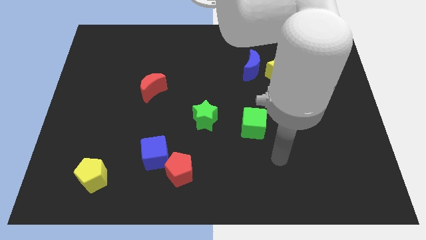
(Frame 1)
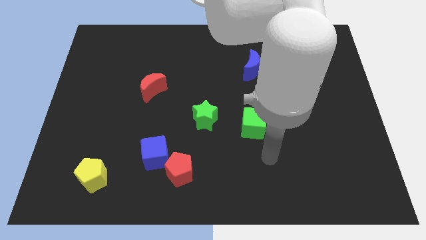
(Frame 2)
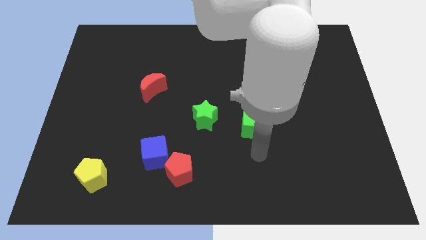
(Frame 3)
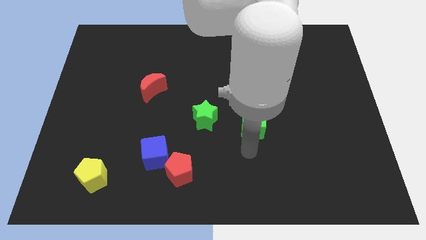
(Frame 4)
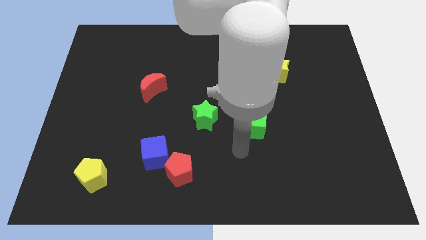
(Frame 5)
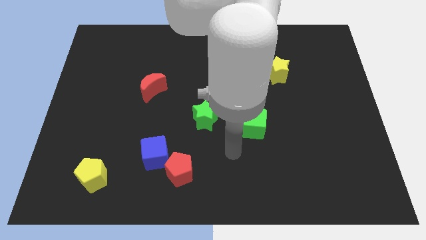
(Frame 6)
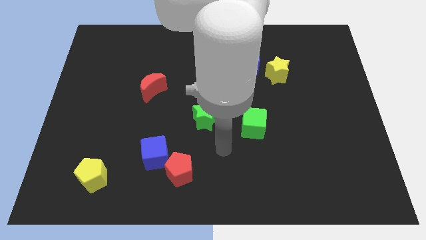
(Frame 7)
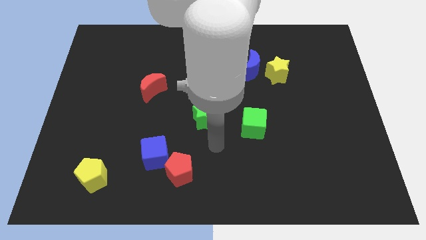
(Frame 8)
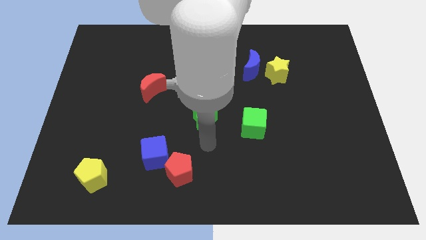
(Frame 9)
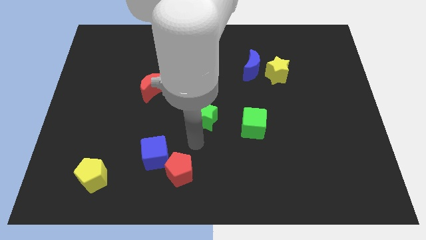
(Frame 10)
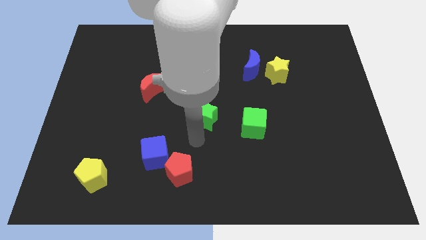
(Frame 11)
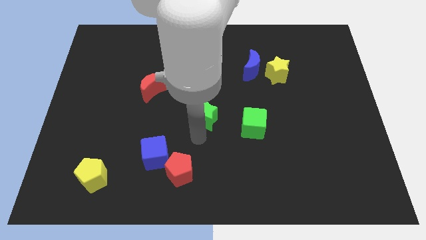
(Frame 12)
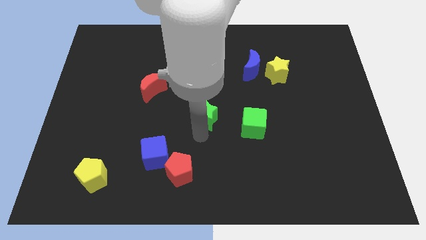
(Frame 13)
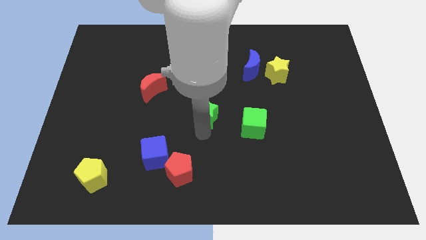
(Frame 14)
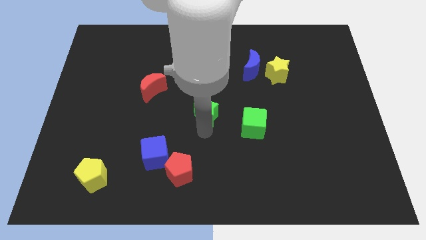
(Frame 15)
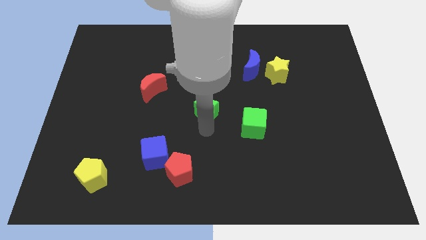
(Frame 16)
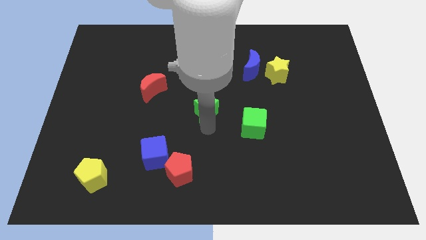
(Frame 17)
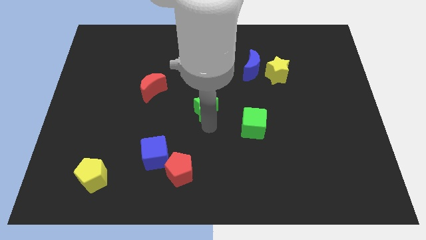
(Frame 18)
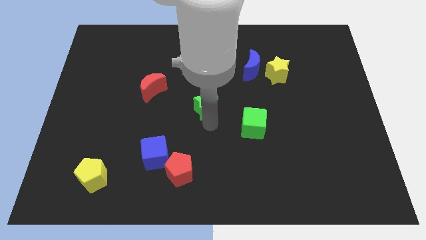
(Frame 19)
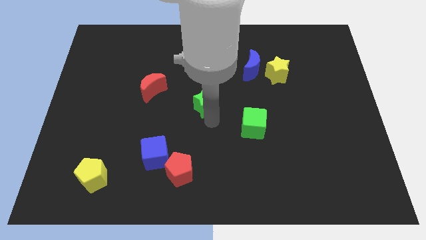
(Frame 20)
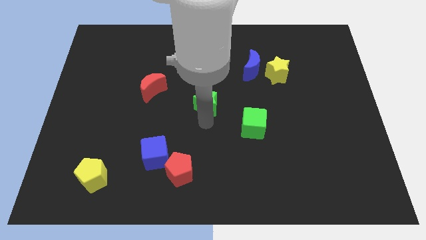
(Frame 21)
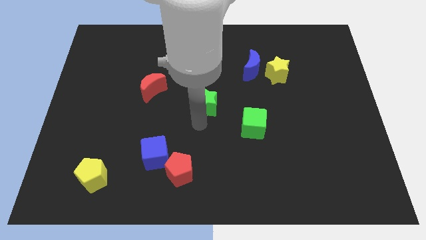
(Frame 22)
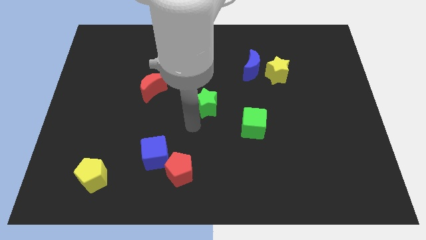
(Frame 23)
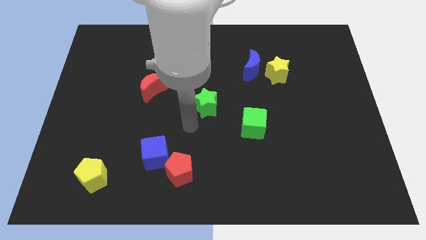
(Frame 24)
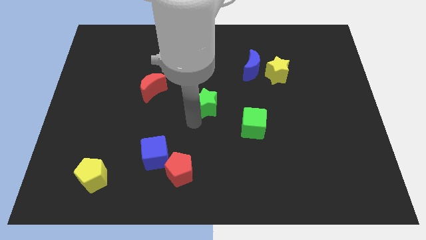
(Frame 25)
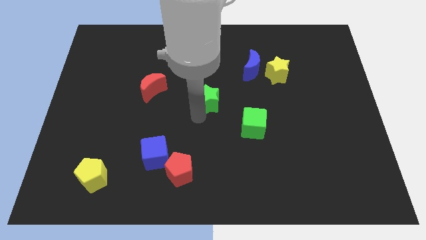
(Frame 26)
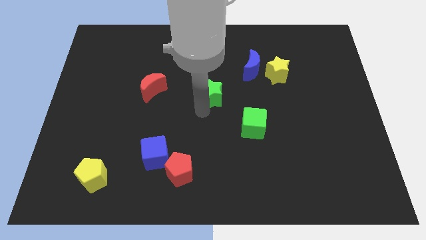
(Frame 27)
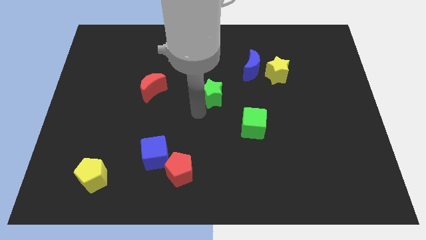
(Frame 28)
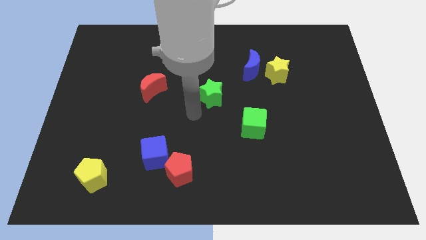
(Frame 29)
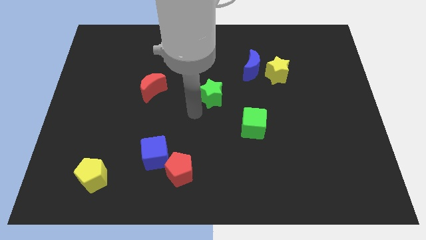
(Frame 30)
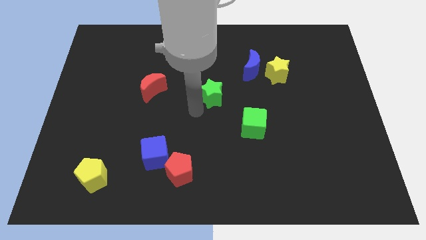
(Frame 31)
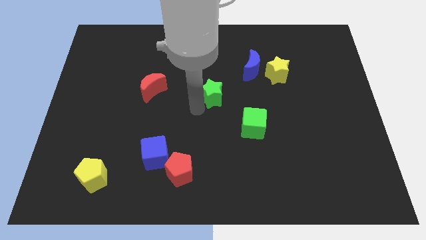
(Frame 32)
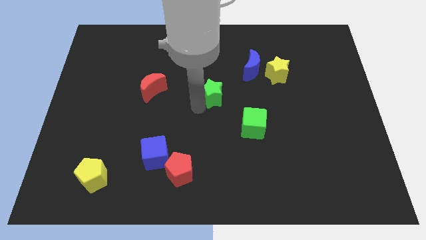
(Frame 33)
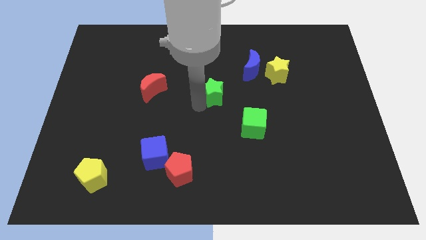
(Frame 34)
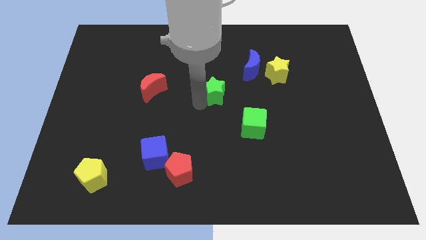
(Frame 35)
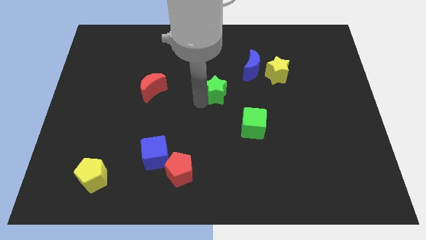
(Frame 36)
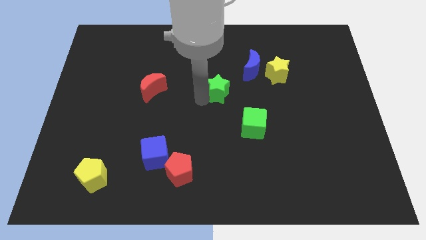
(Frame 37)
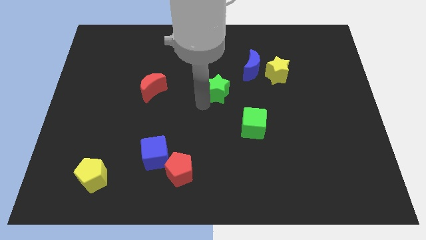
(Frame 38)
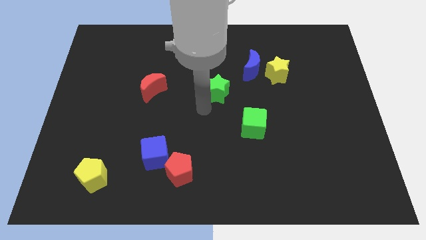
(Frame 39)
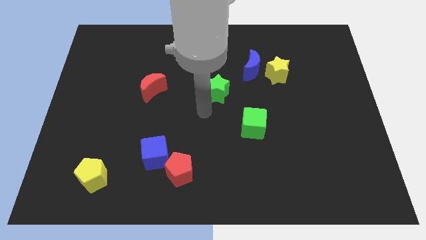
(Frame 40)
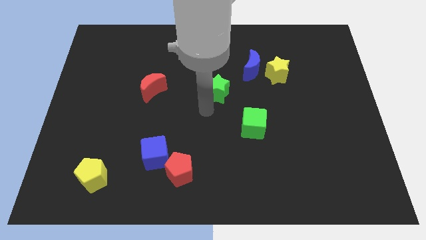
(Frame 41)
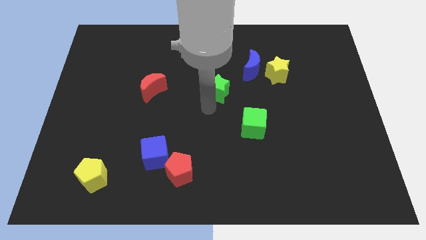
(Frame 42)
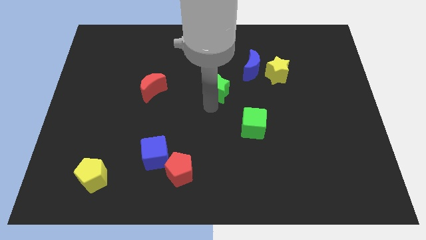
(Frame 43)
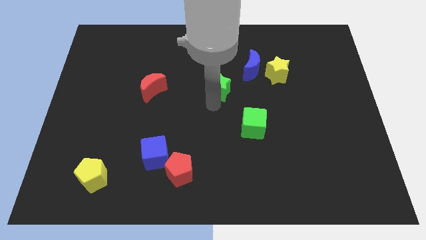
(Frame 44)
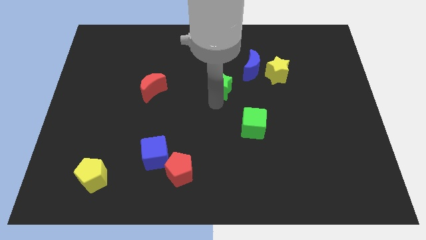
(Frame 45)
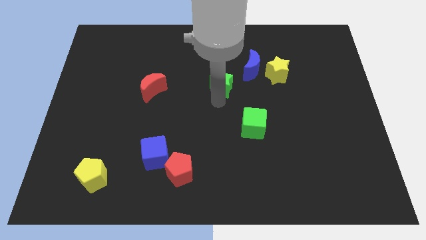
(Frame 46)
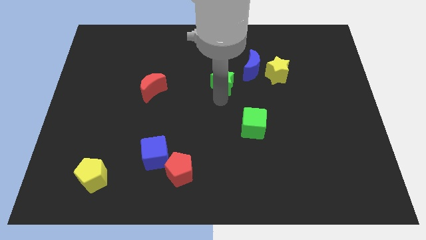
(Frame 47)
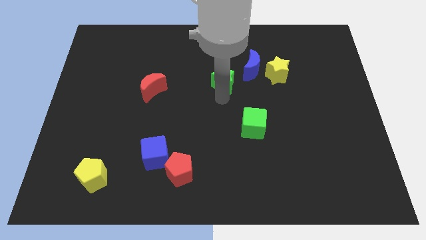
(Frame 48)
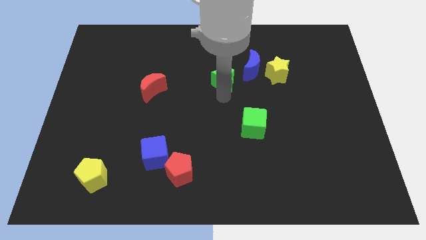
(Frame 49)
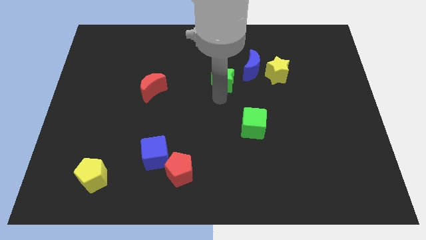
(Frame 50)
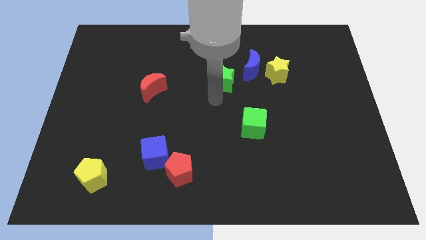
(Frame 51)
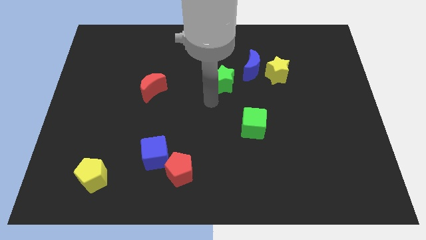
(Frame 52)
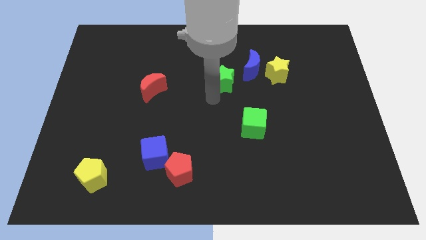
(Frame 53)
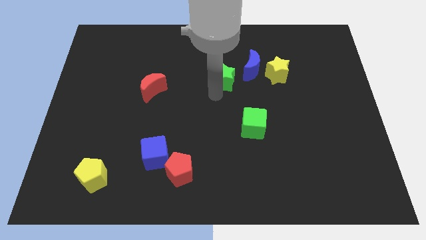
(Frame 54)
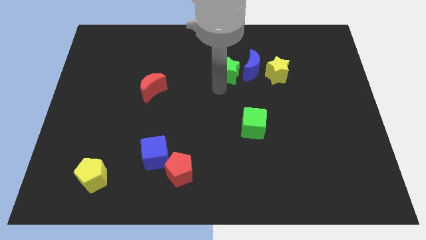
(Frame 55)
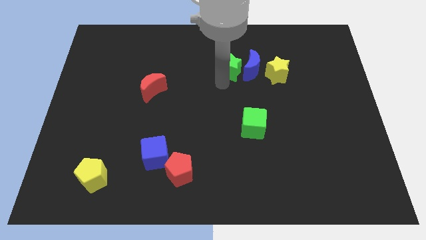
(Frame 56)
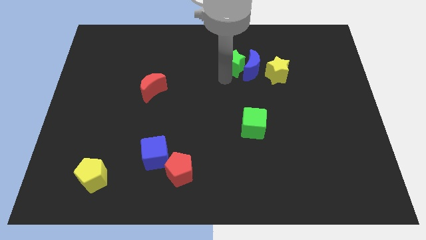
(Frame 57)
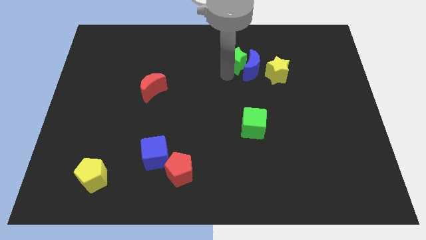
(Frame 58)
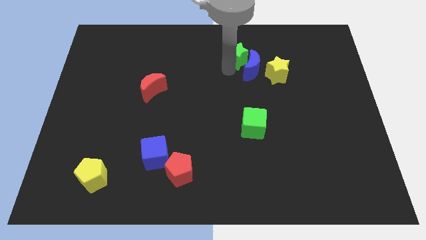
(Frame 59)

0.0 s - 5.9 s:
push the green star to the top left side of the yellow star
